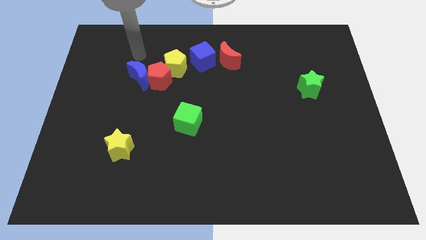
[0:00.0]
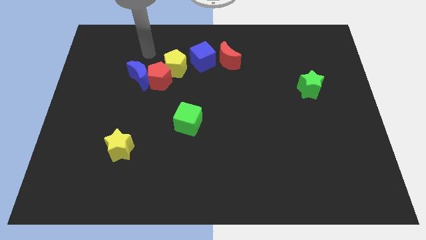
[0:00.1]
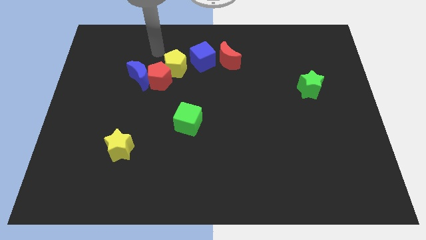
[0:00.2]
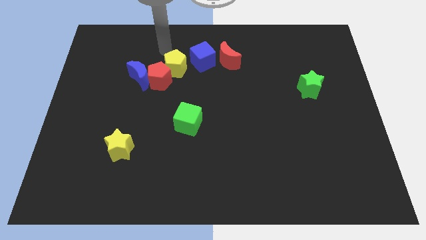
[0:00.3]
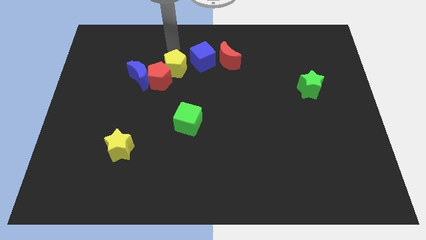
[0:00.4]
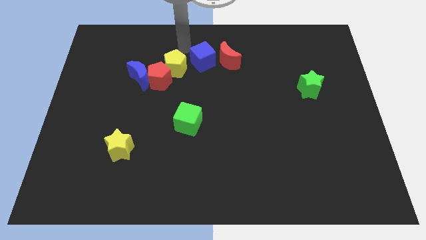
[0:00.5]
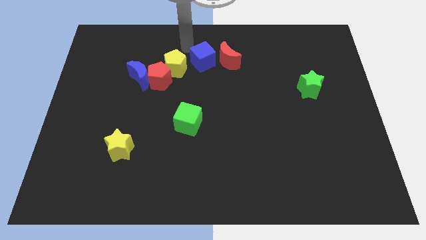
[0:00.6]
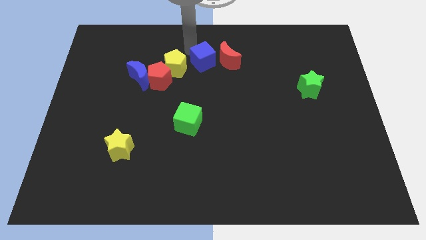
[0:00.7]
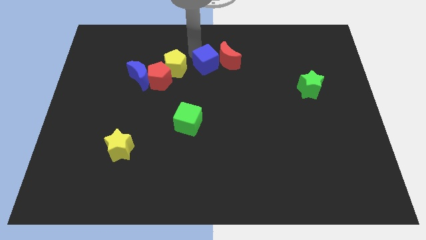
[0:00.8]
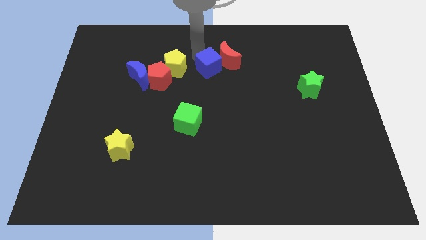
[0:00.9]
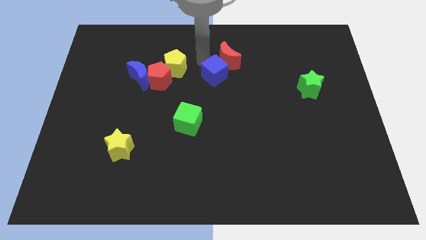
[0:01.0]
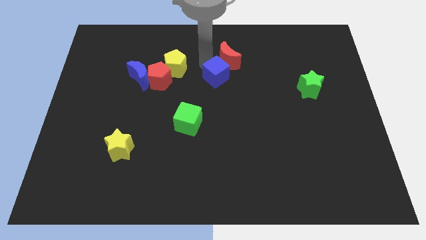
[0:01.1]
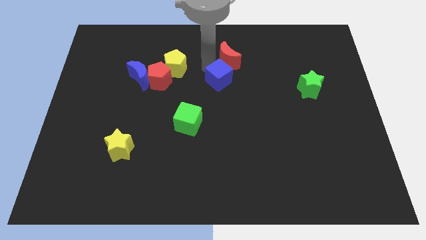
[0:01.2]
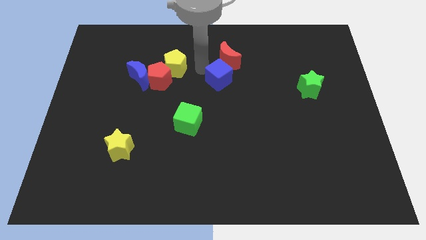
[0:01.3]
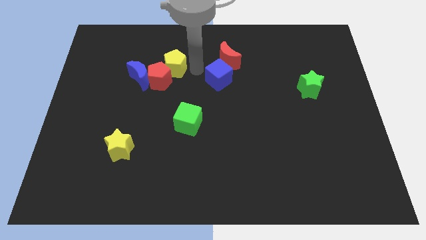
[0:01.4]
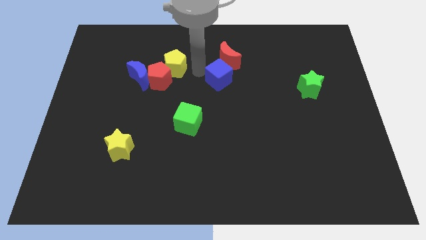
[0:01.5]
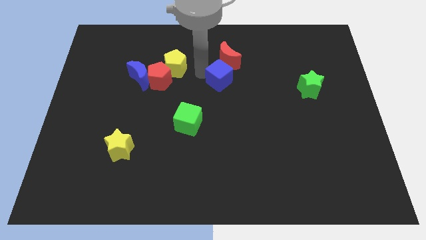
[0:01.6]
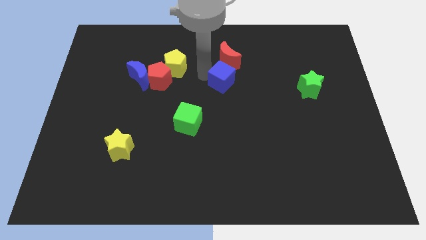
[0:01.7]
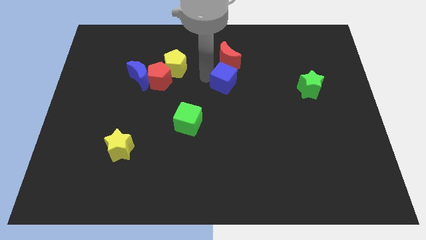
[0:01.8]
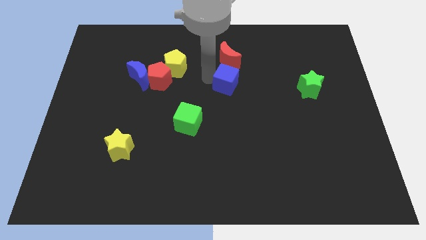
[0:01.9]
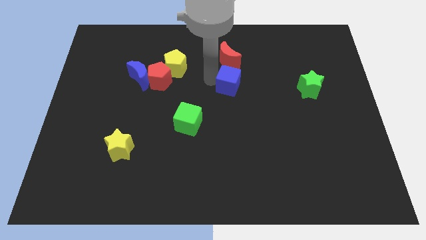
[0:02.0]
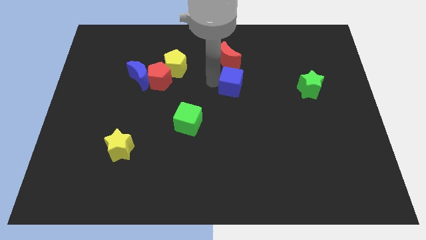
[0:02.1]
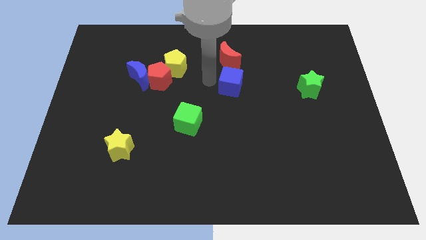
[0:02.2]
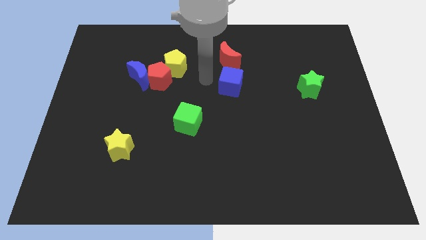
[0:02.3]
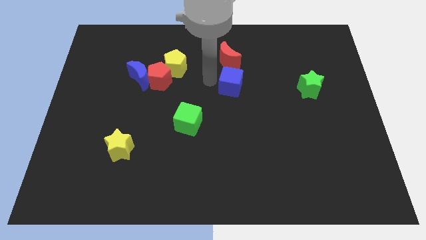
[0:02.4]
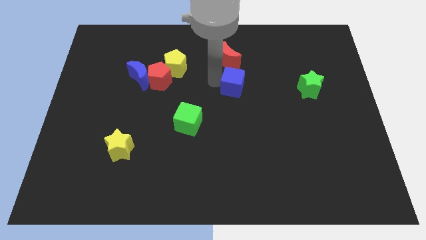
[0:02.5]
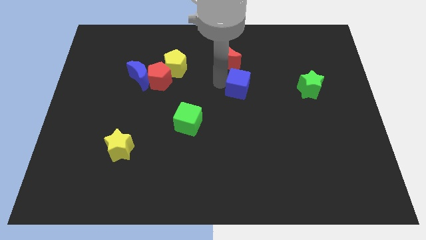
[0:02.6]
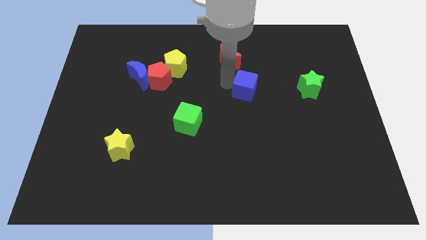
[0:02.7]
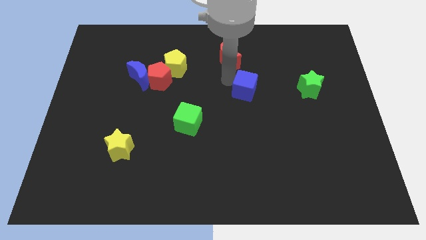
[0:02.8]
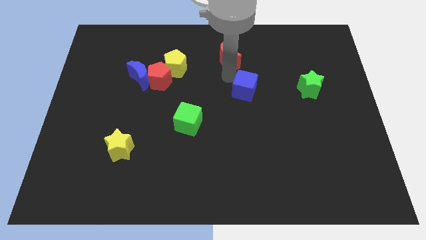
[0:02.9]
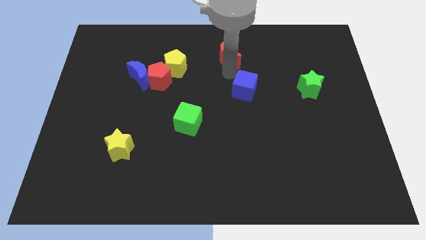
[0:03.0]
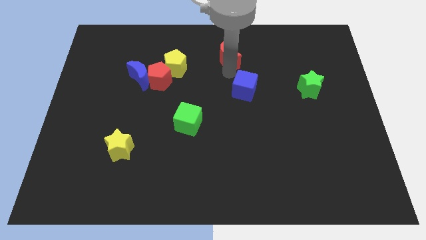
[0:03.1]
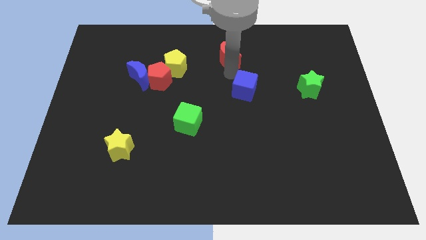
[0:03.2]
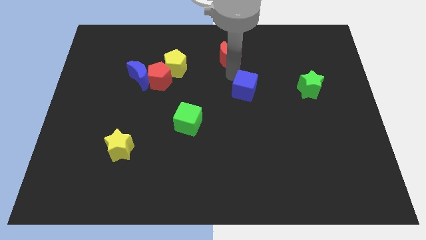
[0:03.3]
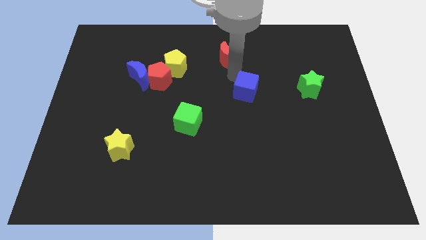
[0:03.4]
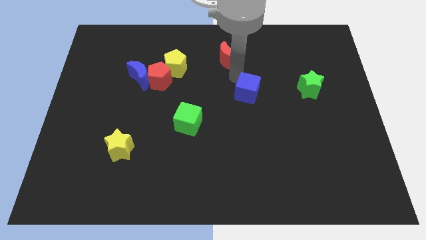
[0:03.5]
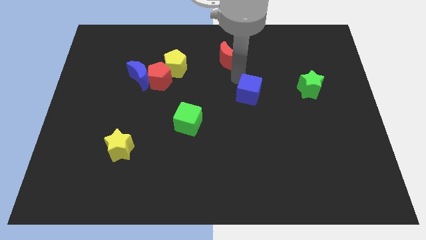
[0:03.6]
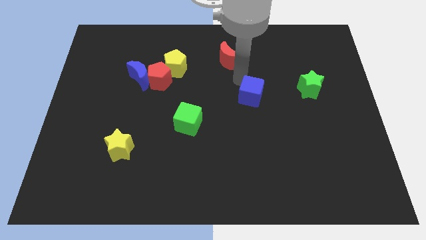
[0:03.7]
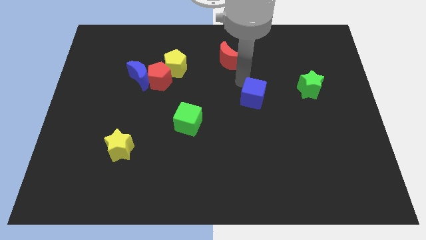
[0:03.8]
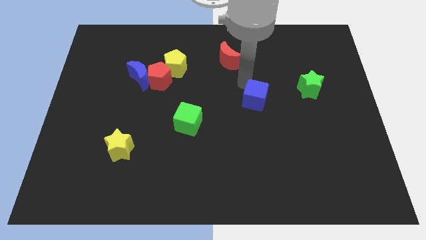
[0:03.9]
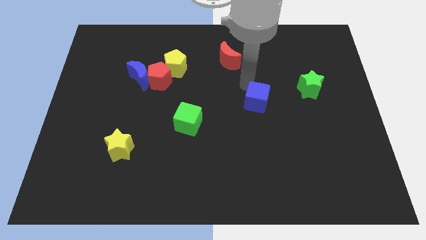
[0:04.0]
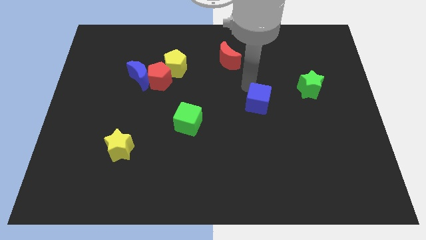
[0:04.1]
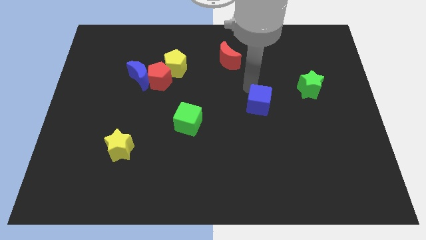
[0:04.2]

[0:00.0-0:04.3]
push the blue cube down and then to the right

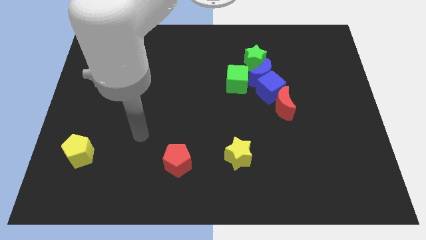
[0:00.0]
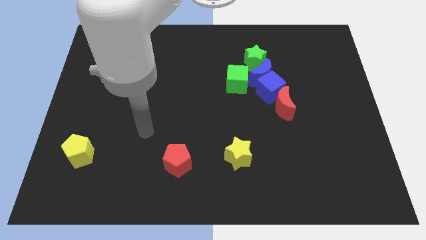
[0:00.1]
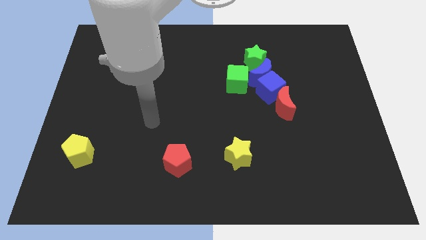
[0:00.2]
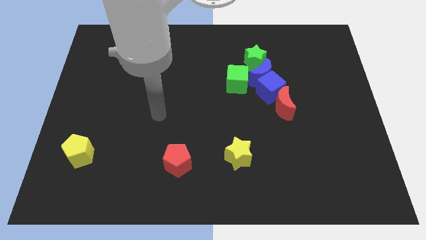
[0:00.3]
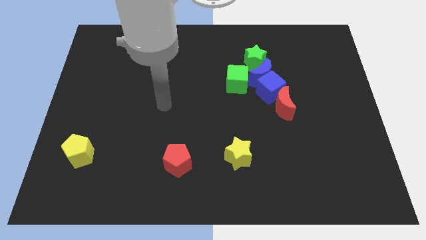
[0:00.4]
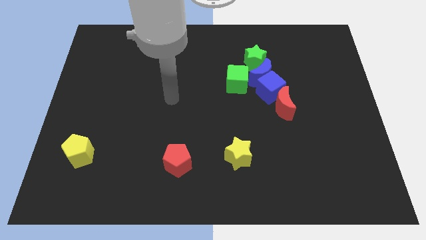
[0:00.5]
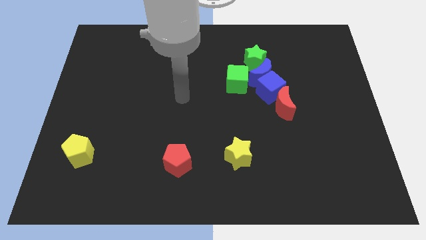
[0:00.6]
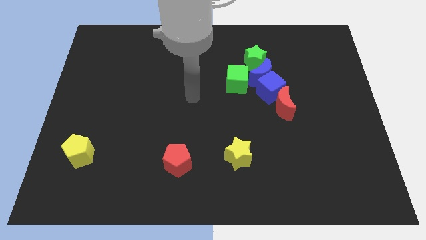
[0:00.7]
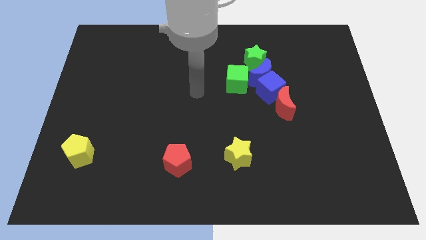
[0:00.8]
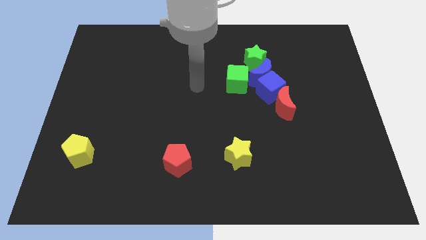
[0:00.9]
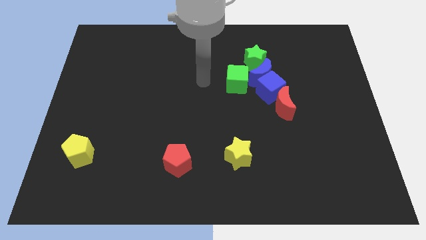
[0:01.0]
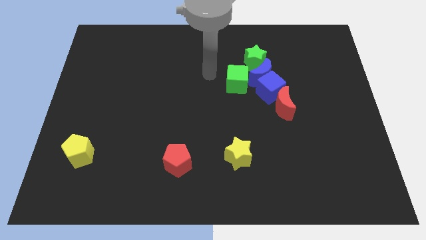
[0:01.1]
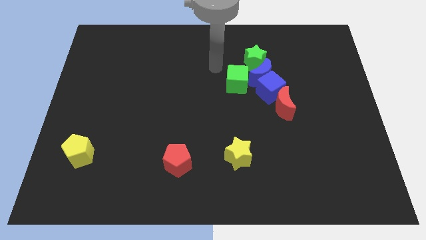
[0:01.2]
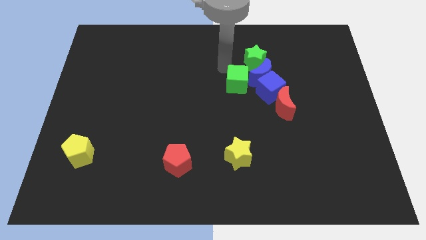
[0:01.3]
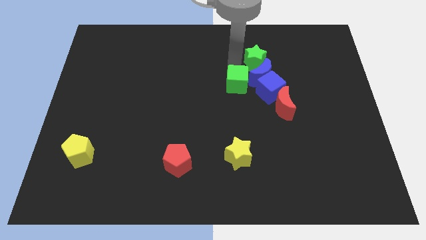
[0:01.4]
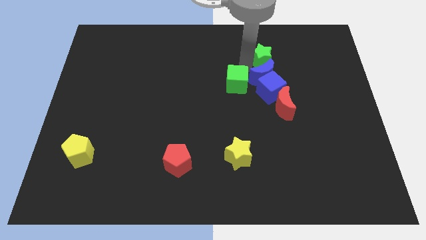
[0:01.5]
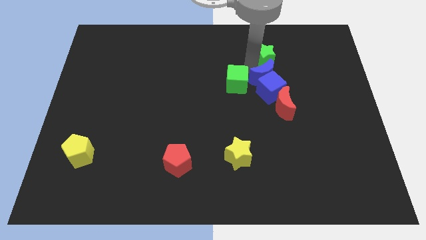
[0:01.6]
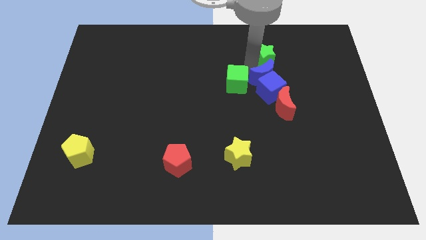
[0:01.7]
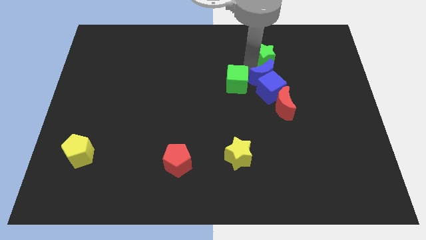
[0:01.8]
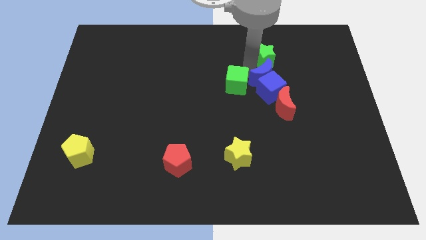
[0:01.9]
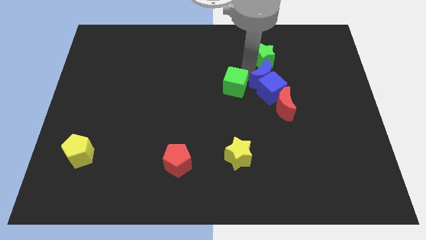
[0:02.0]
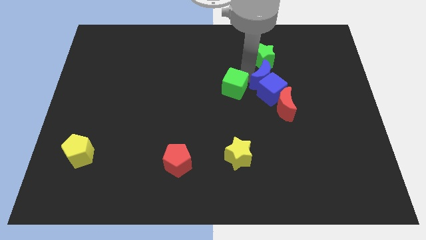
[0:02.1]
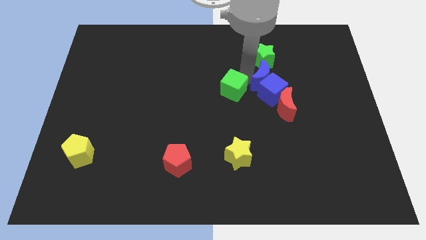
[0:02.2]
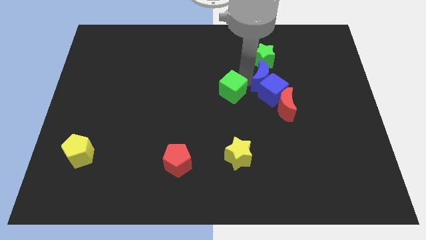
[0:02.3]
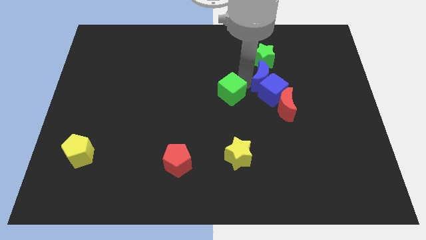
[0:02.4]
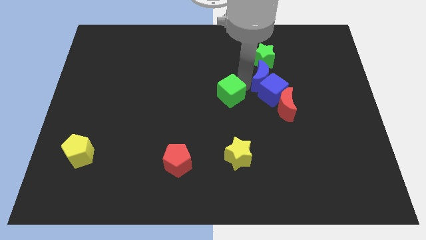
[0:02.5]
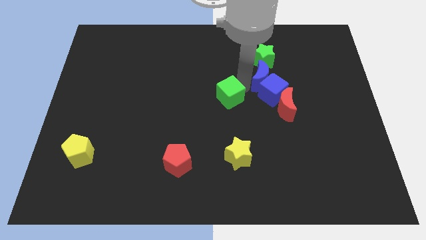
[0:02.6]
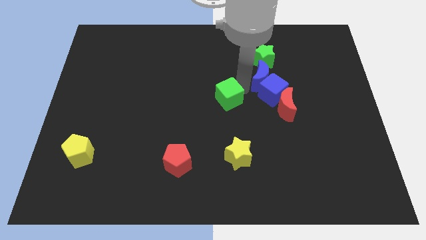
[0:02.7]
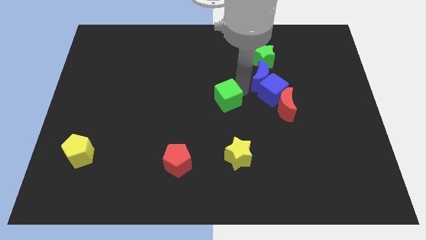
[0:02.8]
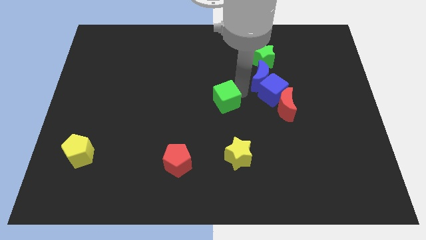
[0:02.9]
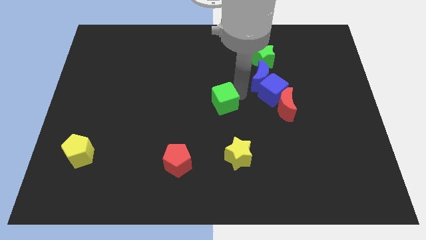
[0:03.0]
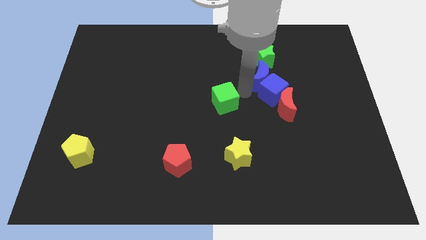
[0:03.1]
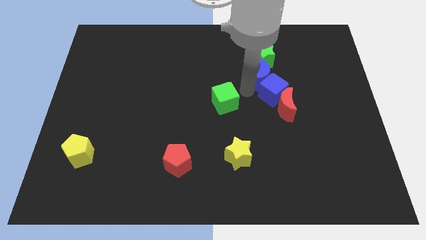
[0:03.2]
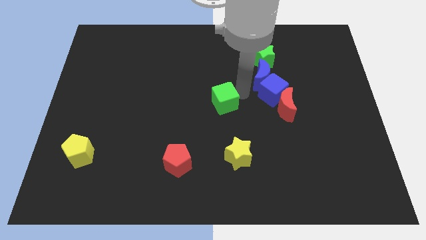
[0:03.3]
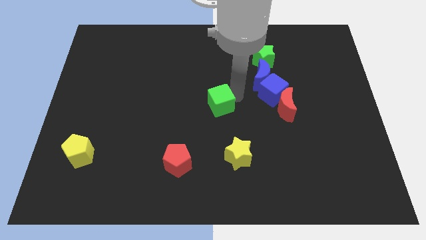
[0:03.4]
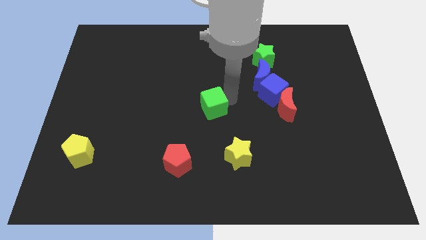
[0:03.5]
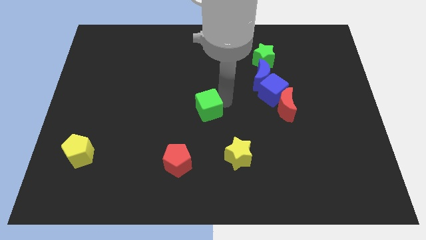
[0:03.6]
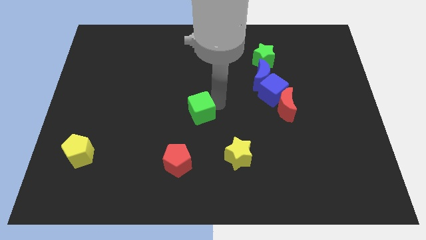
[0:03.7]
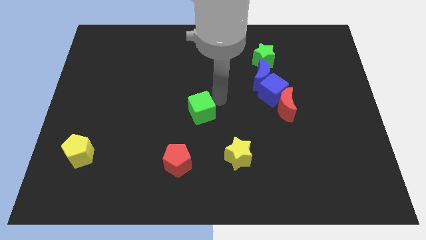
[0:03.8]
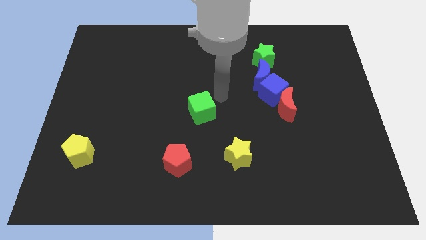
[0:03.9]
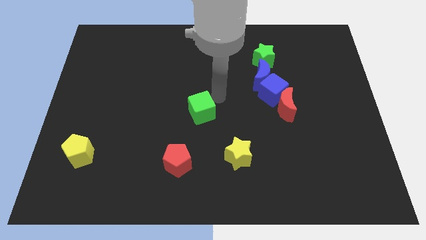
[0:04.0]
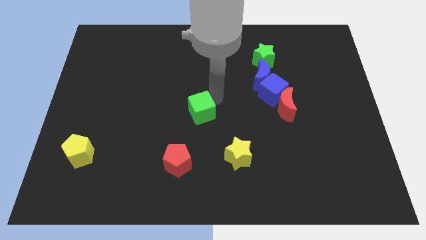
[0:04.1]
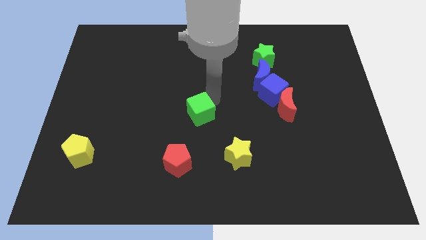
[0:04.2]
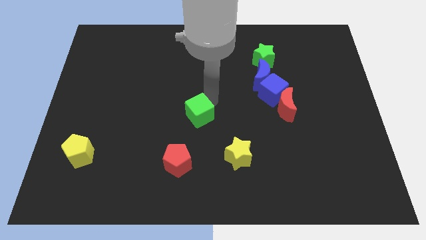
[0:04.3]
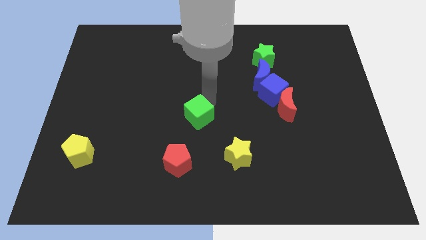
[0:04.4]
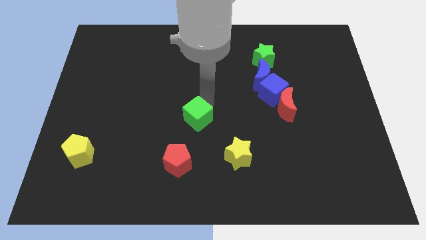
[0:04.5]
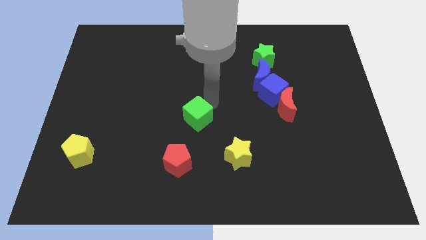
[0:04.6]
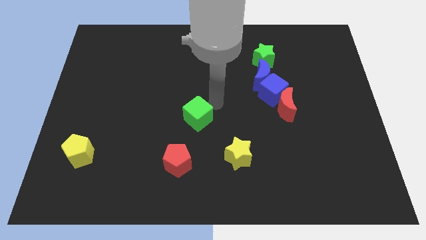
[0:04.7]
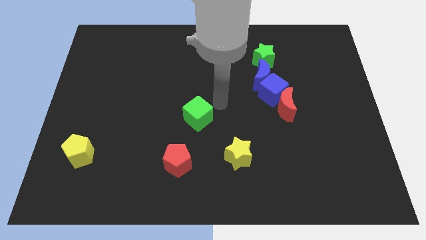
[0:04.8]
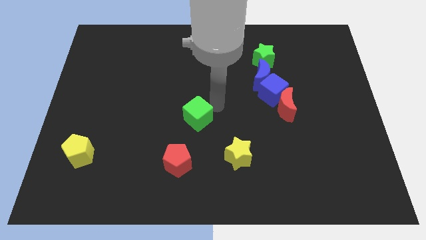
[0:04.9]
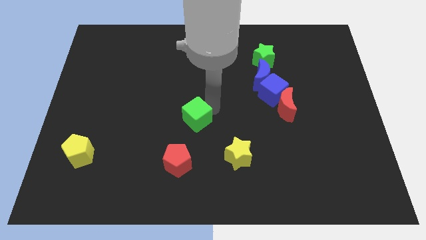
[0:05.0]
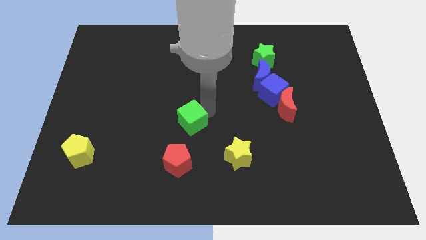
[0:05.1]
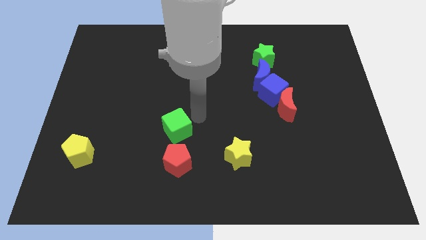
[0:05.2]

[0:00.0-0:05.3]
push the green cube downwards and left
